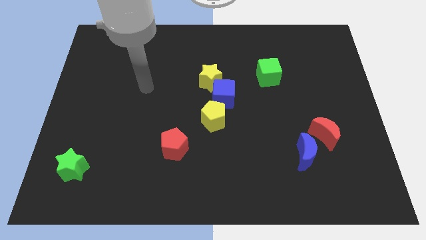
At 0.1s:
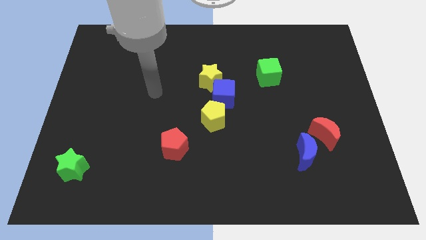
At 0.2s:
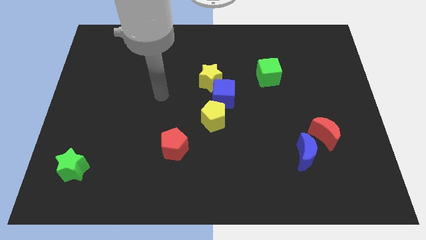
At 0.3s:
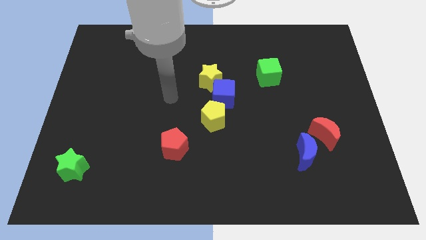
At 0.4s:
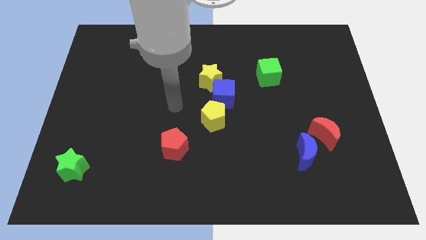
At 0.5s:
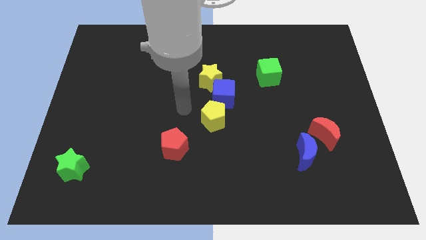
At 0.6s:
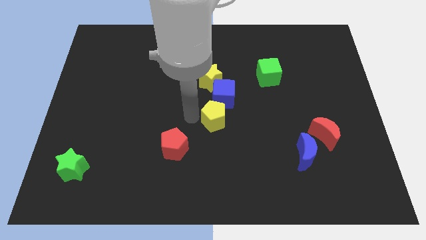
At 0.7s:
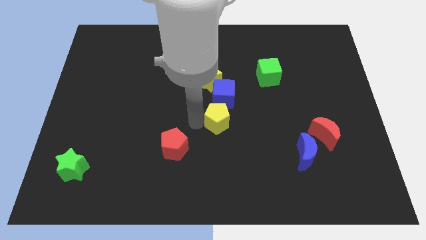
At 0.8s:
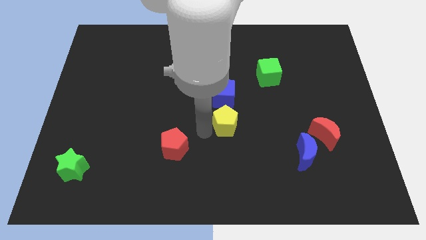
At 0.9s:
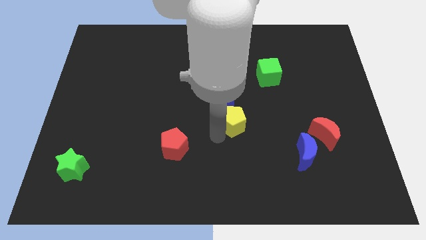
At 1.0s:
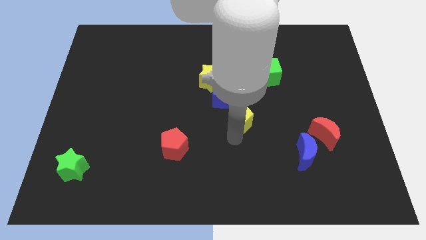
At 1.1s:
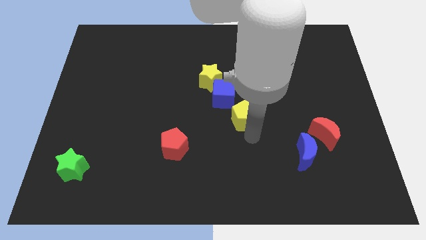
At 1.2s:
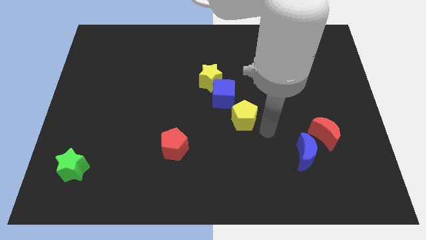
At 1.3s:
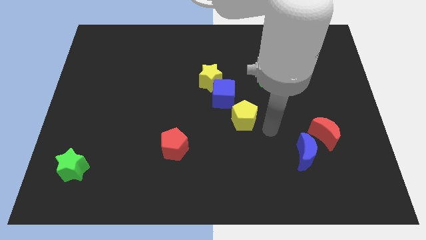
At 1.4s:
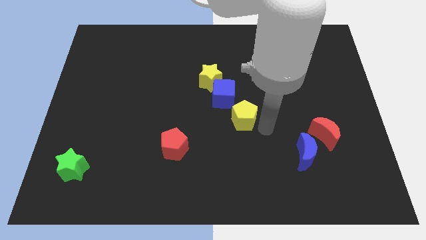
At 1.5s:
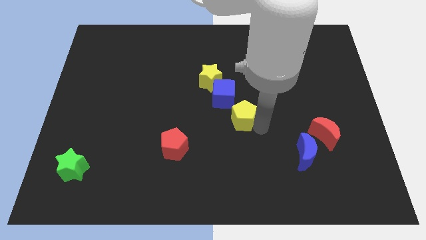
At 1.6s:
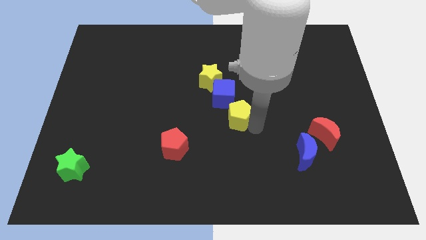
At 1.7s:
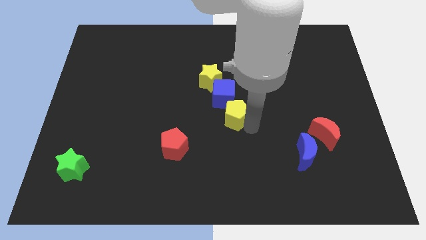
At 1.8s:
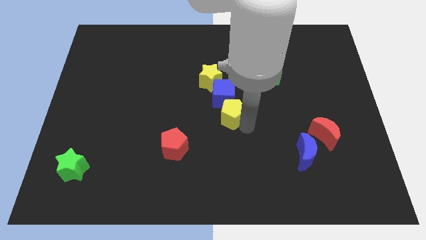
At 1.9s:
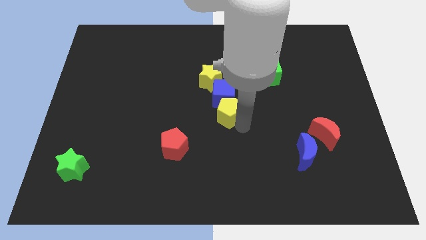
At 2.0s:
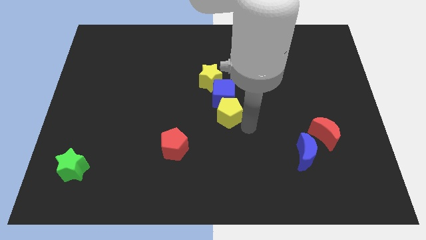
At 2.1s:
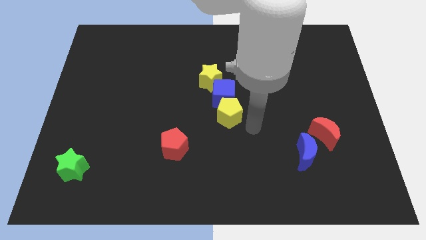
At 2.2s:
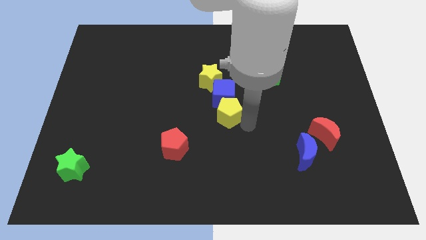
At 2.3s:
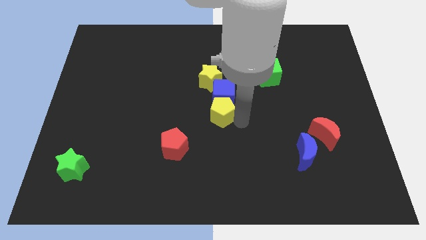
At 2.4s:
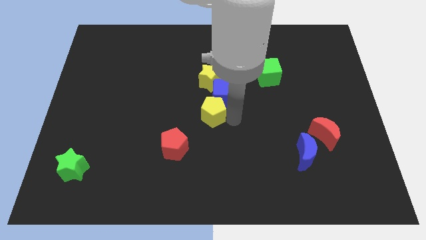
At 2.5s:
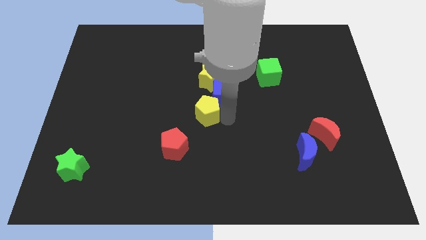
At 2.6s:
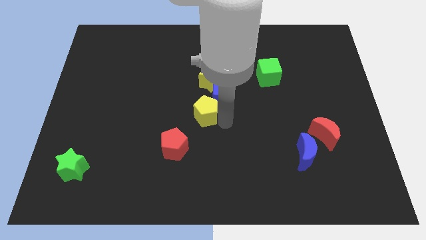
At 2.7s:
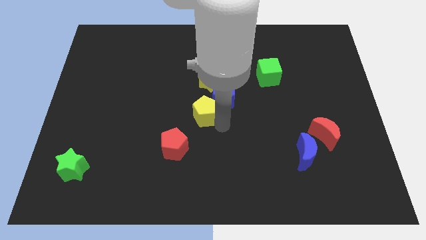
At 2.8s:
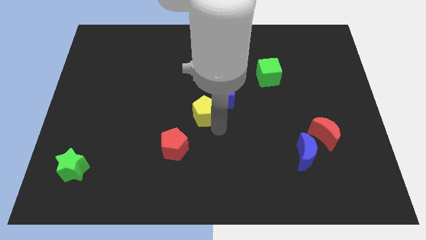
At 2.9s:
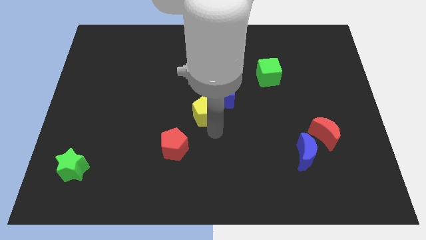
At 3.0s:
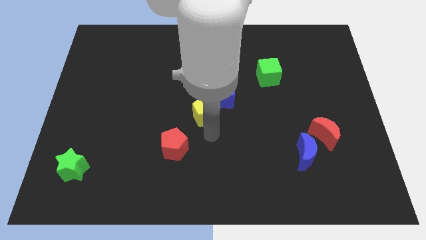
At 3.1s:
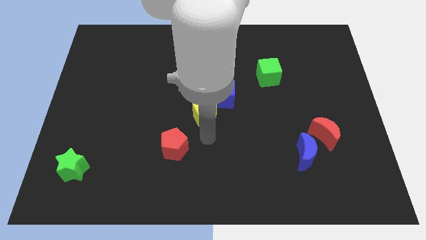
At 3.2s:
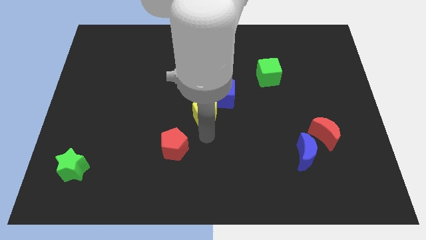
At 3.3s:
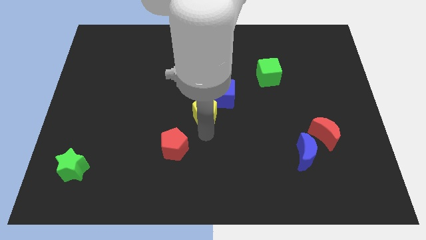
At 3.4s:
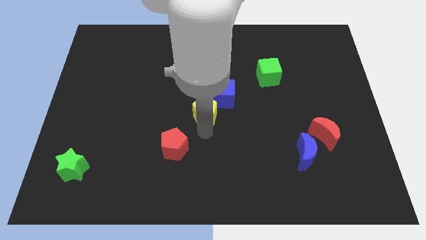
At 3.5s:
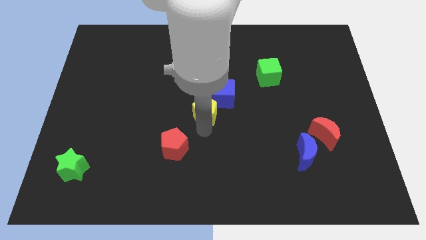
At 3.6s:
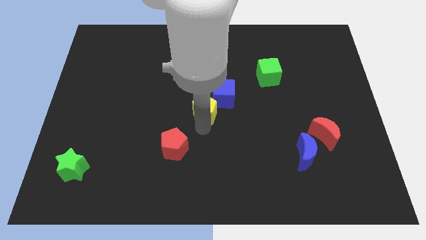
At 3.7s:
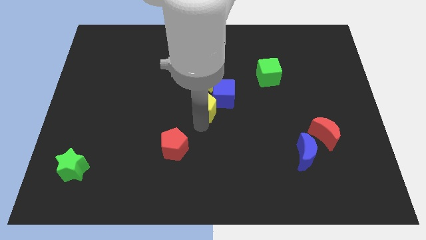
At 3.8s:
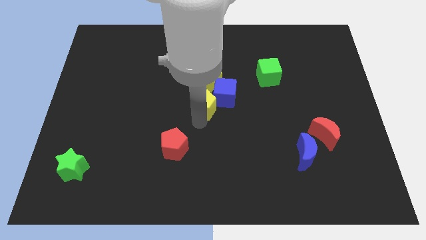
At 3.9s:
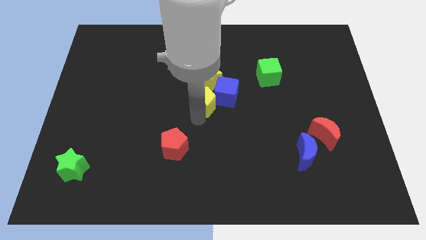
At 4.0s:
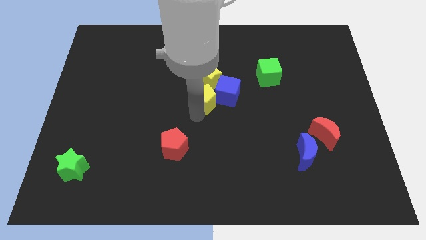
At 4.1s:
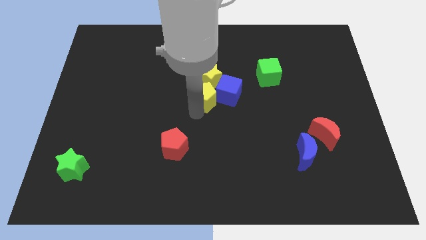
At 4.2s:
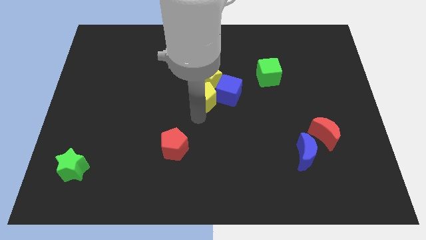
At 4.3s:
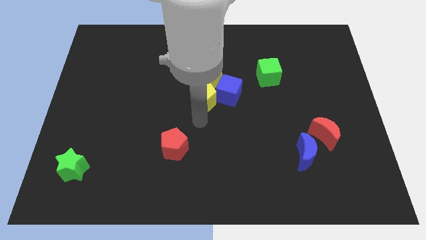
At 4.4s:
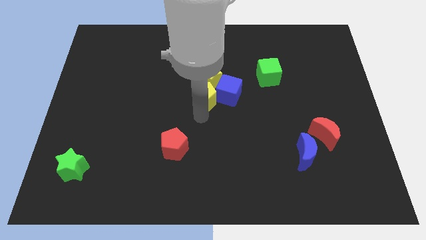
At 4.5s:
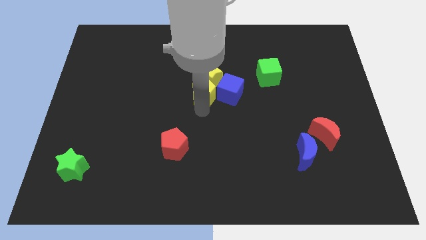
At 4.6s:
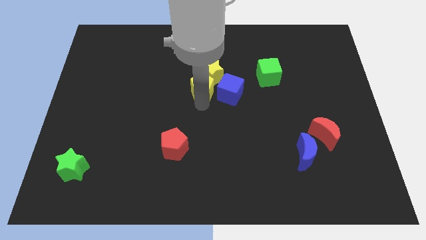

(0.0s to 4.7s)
push the yellow pentagon to the top left of the blue cube

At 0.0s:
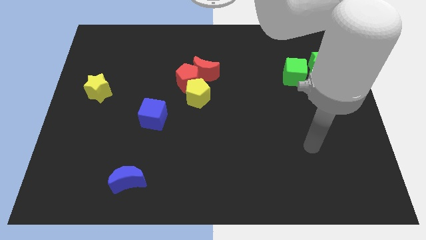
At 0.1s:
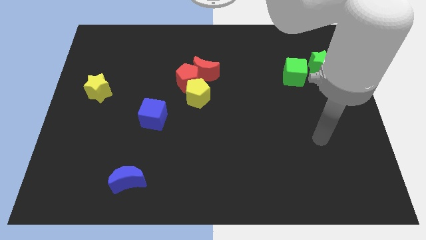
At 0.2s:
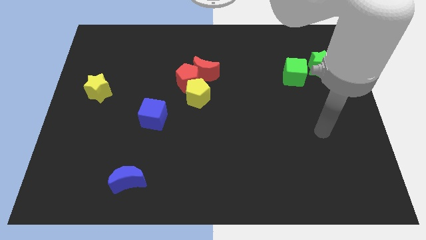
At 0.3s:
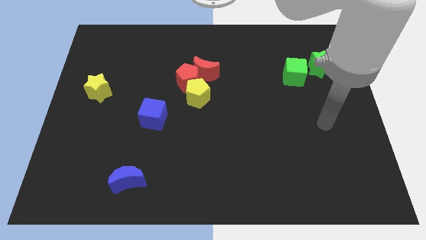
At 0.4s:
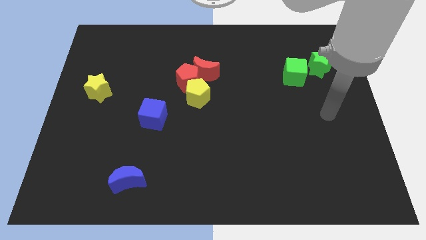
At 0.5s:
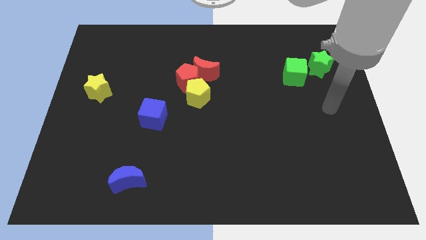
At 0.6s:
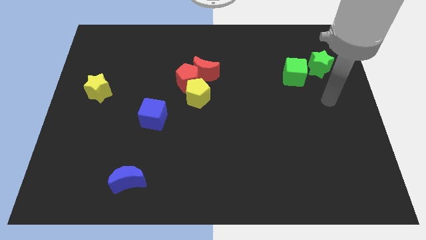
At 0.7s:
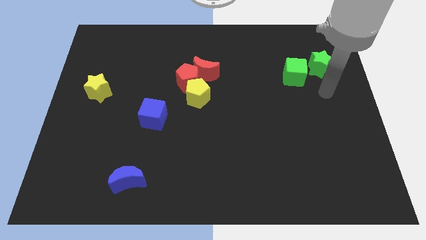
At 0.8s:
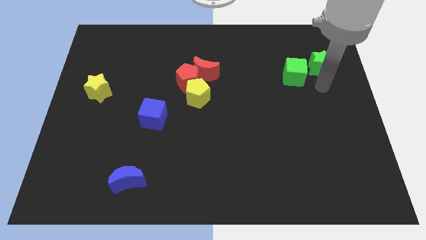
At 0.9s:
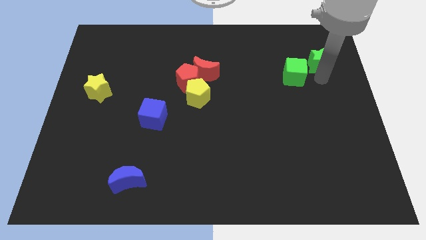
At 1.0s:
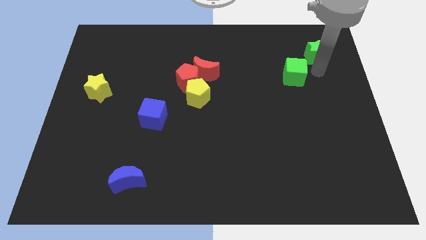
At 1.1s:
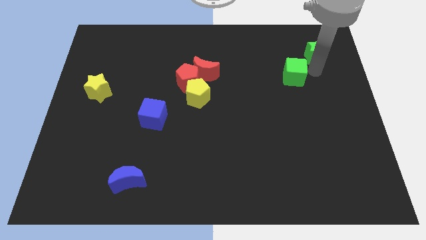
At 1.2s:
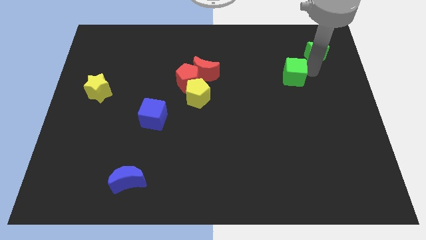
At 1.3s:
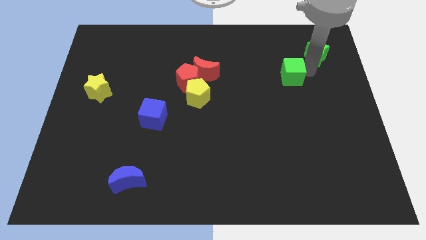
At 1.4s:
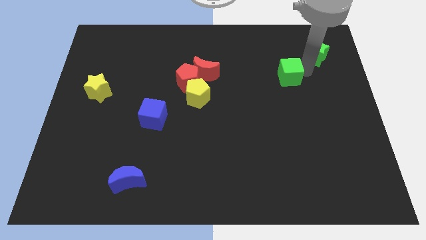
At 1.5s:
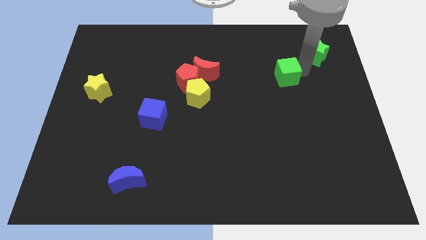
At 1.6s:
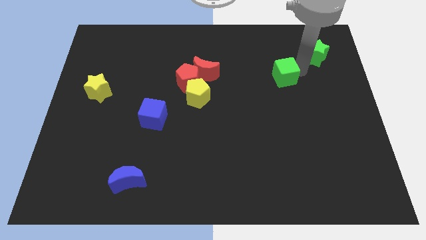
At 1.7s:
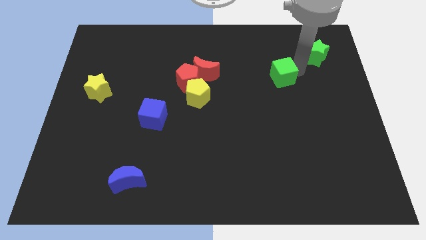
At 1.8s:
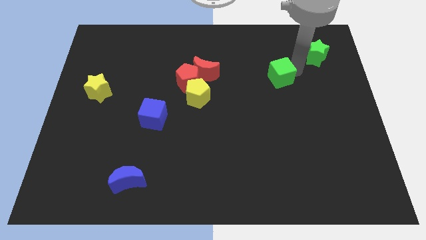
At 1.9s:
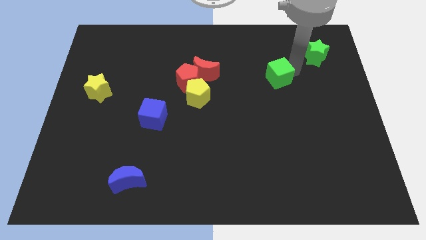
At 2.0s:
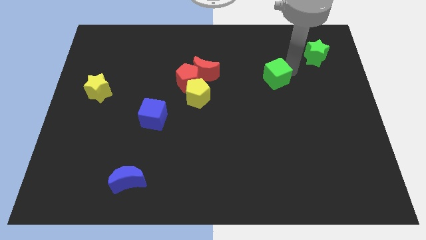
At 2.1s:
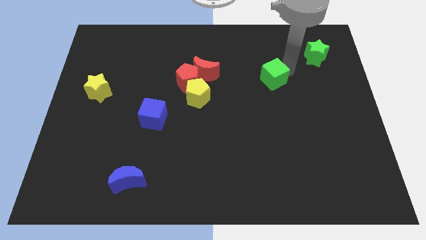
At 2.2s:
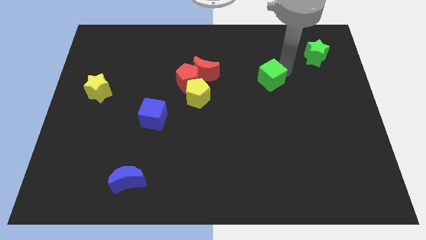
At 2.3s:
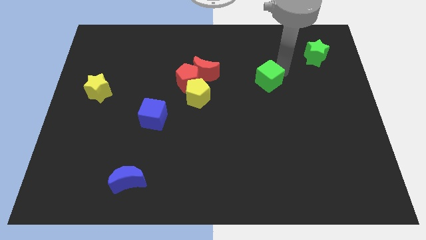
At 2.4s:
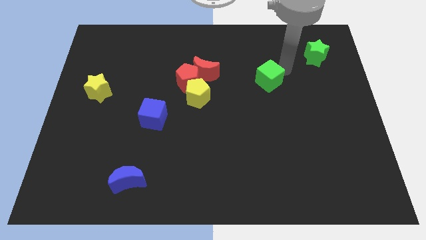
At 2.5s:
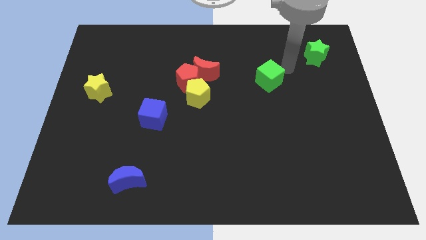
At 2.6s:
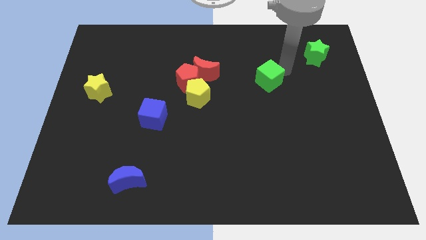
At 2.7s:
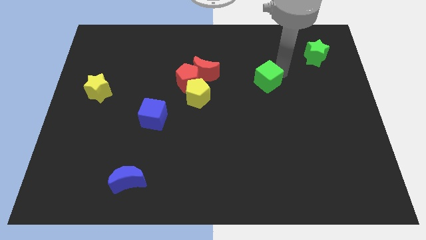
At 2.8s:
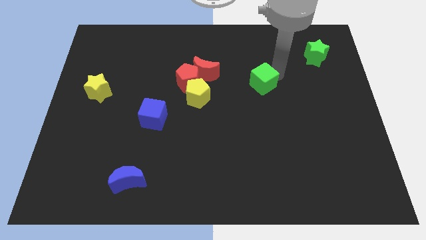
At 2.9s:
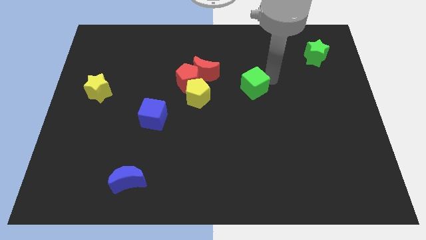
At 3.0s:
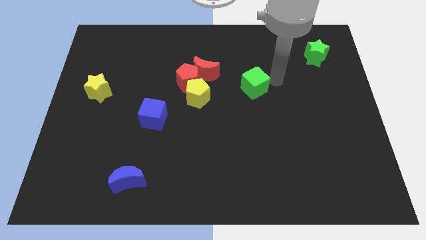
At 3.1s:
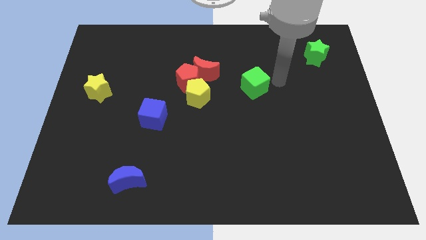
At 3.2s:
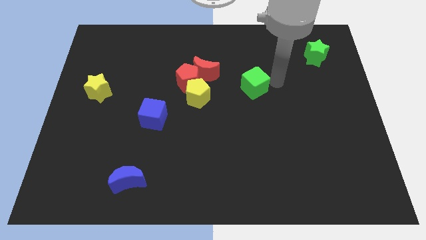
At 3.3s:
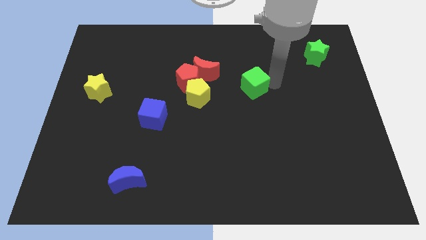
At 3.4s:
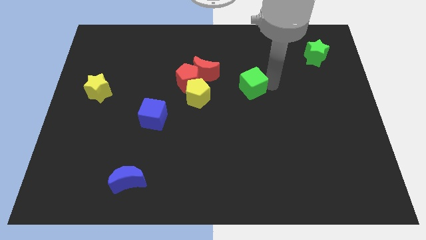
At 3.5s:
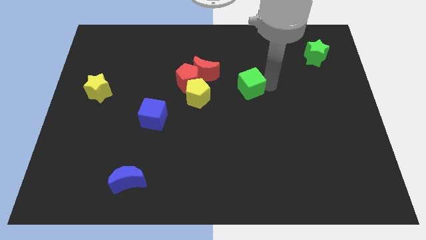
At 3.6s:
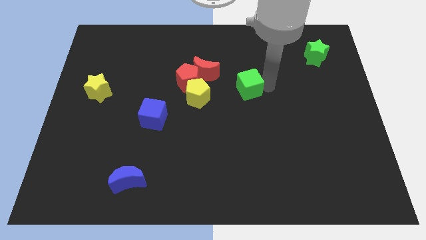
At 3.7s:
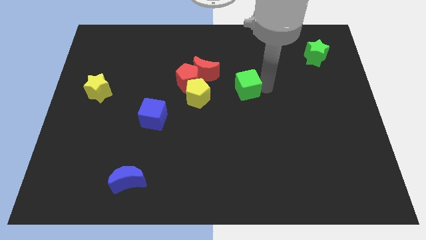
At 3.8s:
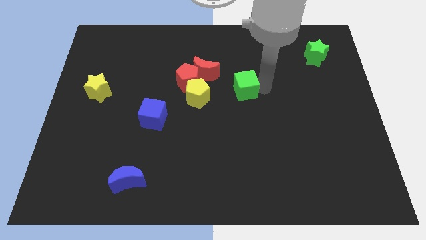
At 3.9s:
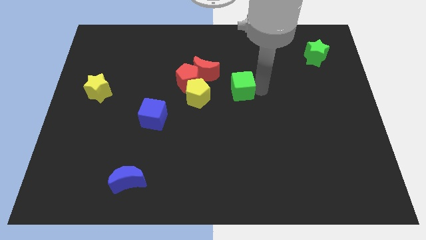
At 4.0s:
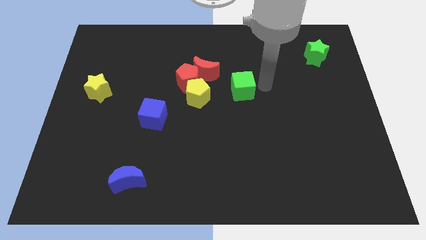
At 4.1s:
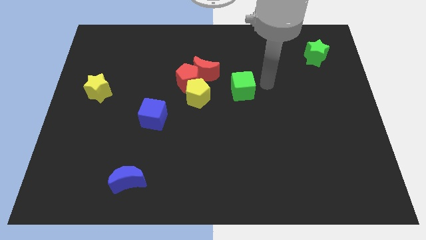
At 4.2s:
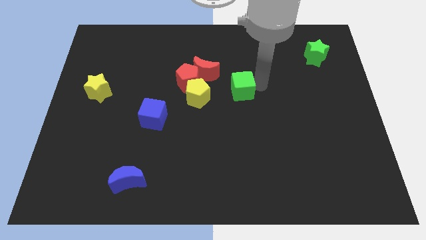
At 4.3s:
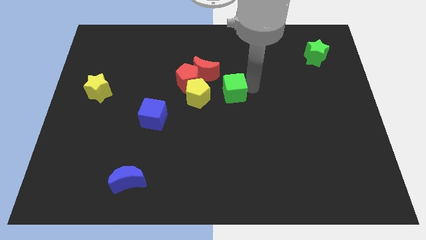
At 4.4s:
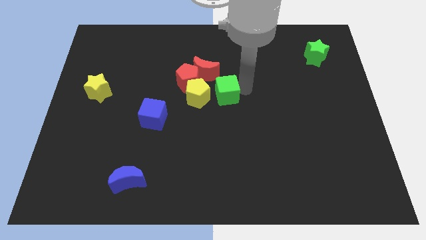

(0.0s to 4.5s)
move the green cube to the bottom right of the red pentagon
